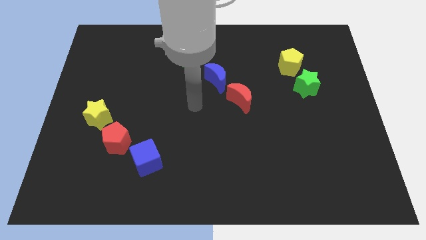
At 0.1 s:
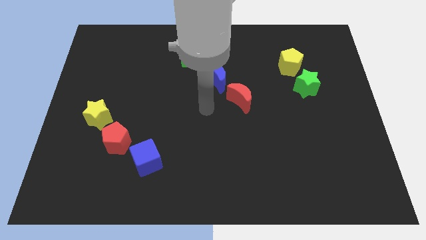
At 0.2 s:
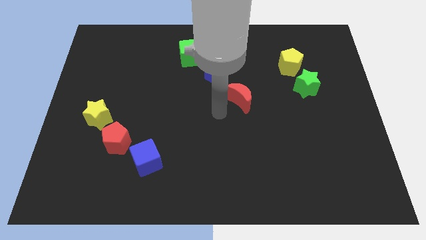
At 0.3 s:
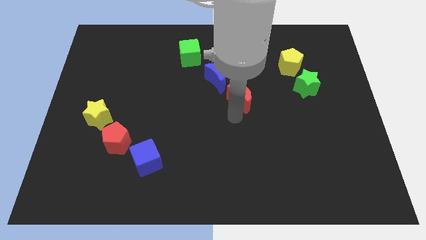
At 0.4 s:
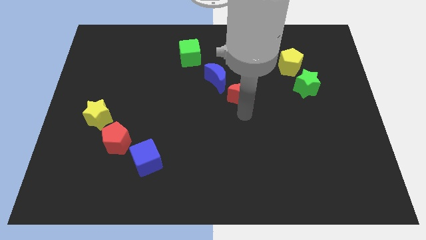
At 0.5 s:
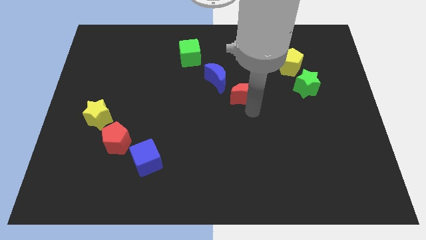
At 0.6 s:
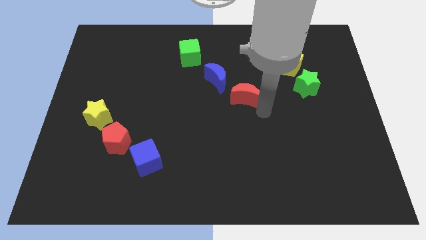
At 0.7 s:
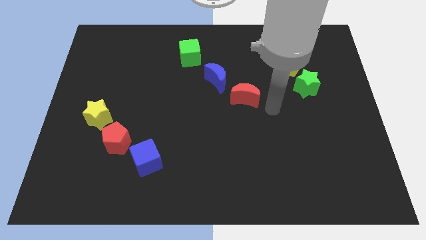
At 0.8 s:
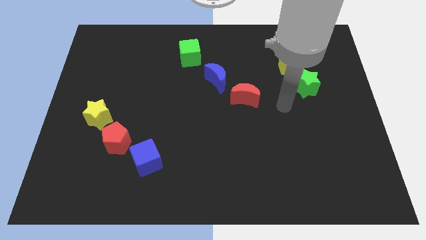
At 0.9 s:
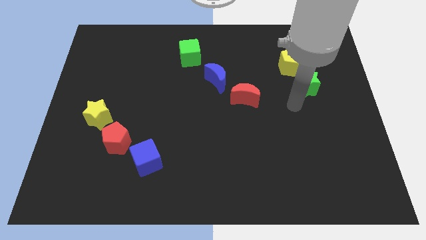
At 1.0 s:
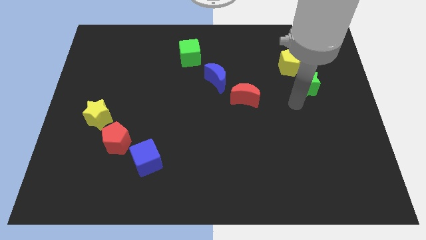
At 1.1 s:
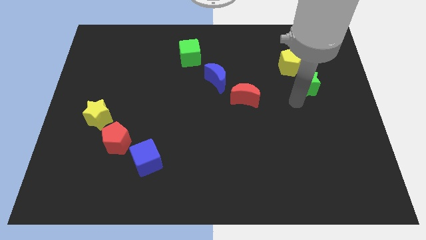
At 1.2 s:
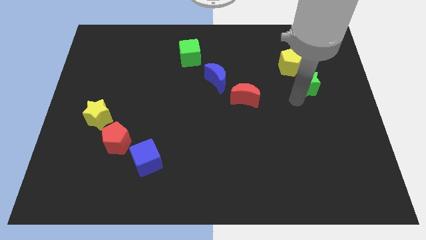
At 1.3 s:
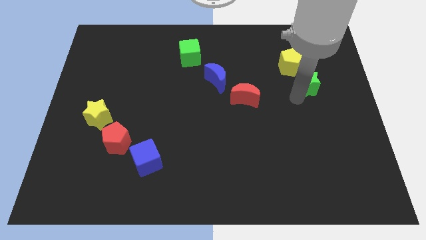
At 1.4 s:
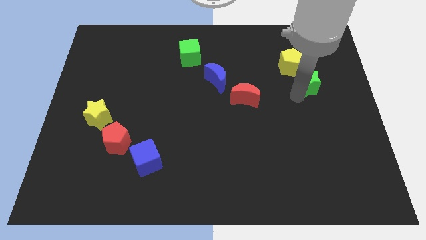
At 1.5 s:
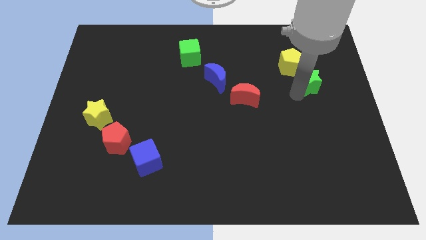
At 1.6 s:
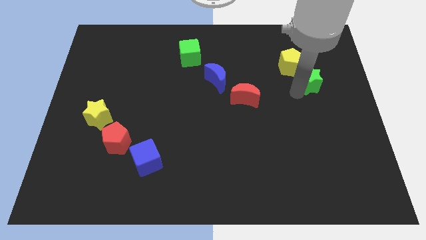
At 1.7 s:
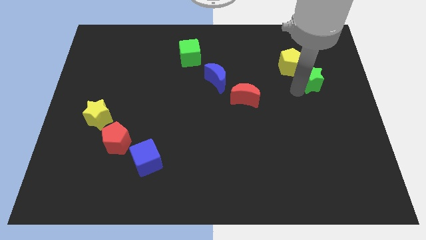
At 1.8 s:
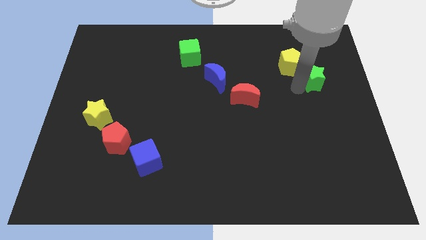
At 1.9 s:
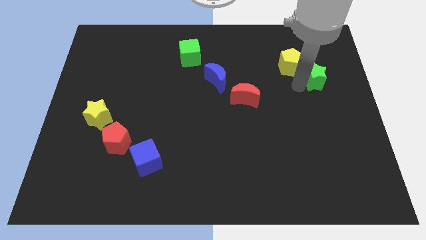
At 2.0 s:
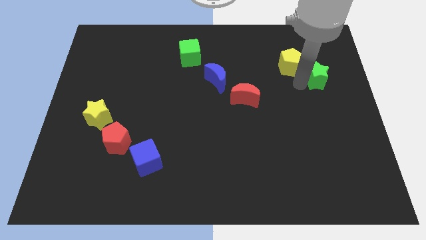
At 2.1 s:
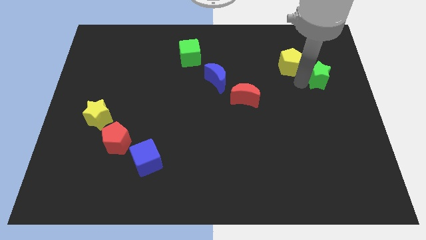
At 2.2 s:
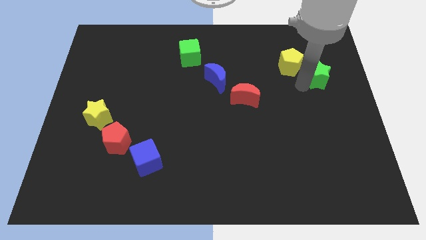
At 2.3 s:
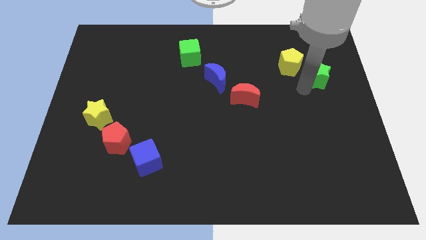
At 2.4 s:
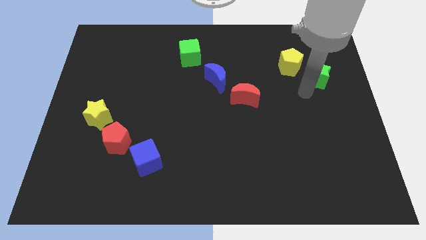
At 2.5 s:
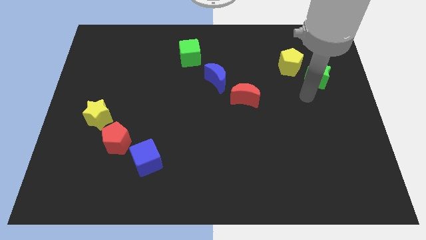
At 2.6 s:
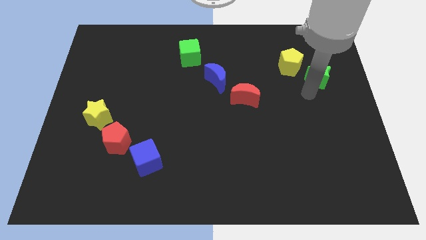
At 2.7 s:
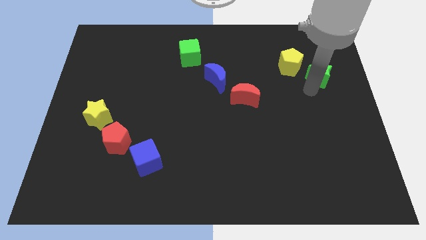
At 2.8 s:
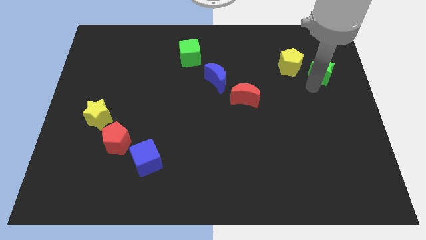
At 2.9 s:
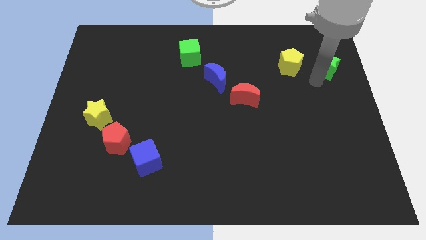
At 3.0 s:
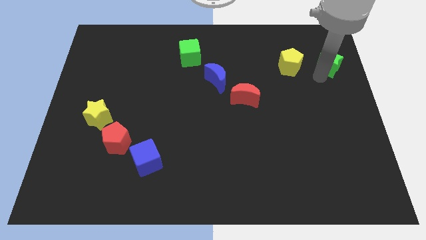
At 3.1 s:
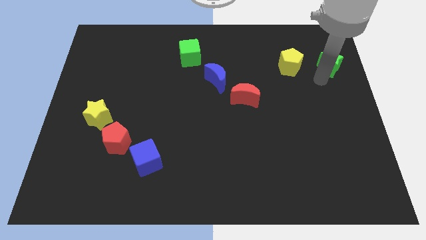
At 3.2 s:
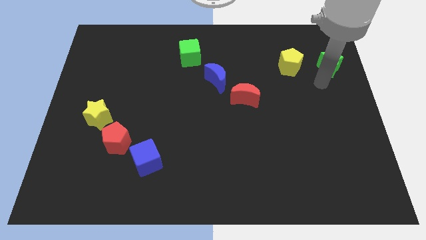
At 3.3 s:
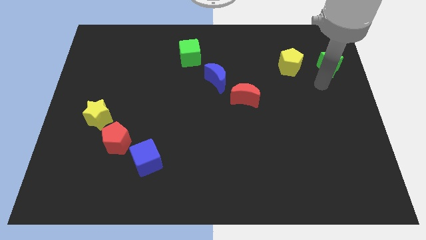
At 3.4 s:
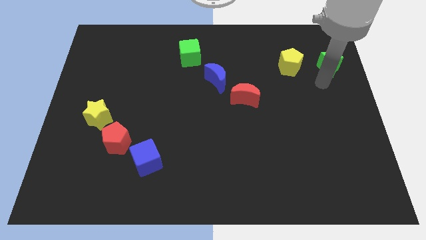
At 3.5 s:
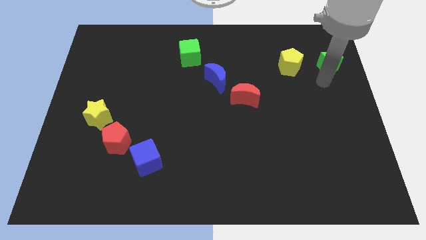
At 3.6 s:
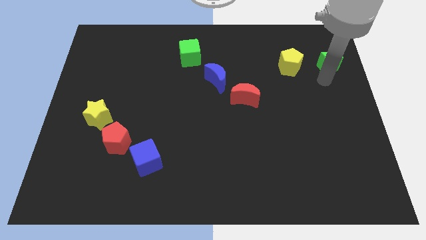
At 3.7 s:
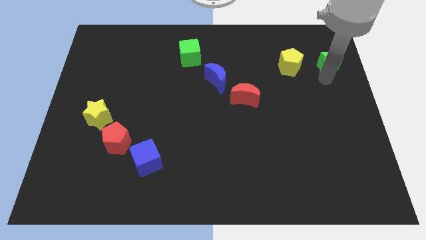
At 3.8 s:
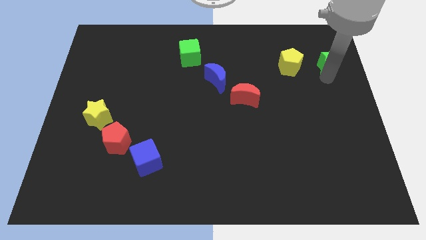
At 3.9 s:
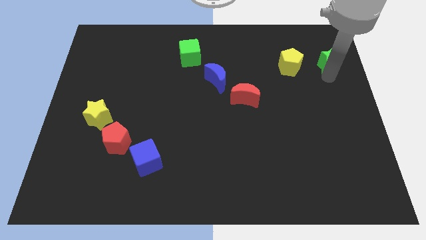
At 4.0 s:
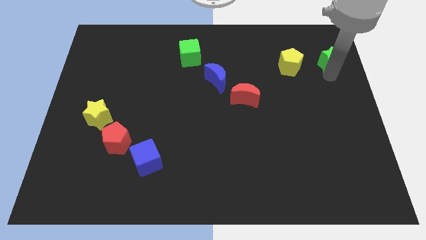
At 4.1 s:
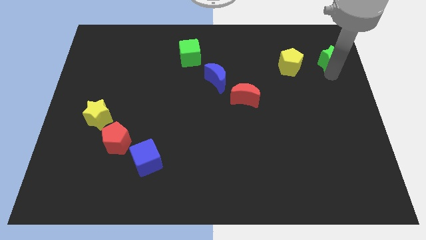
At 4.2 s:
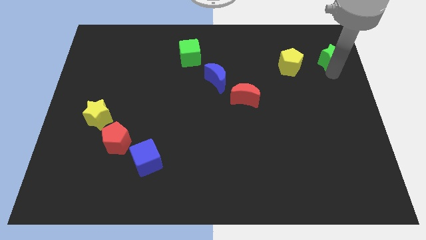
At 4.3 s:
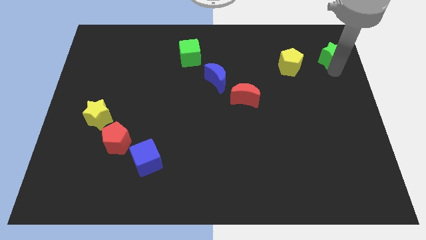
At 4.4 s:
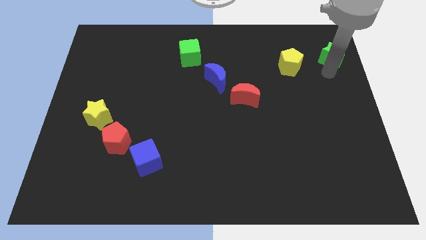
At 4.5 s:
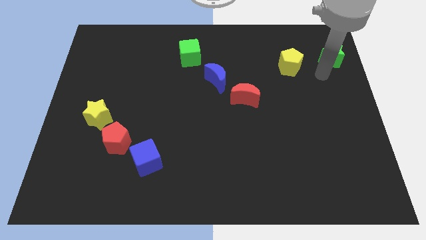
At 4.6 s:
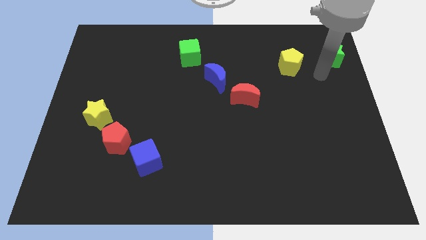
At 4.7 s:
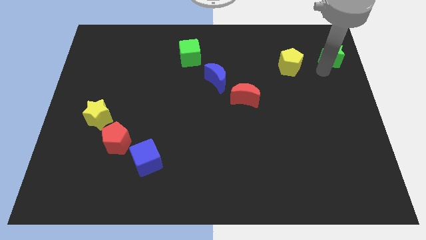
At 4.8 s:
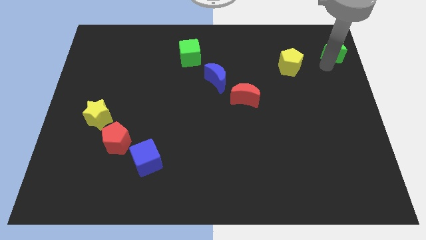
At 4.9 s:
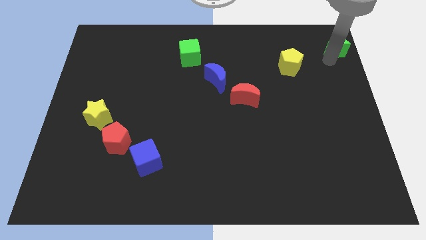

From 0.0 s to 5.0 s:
push the green star to the top right corner

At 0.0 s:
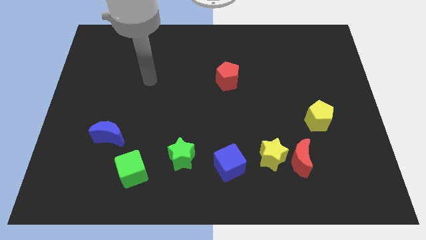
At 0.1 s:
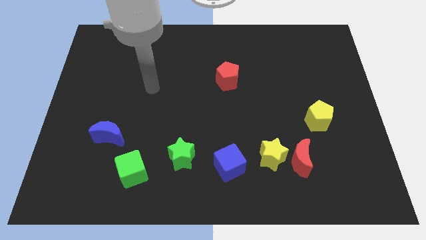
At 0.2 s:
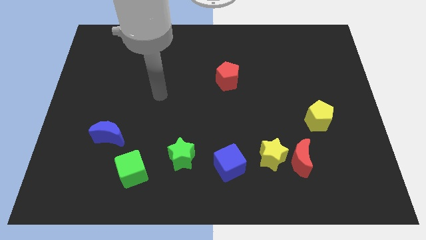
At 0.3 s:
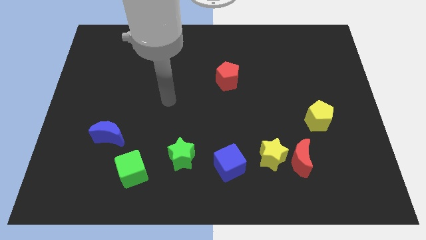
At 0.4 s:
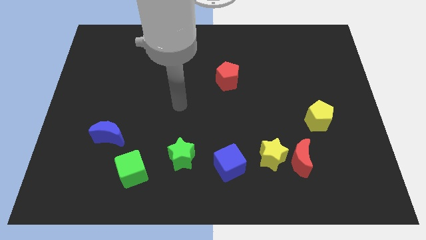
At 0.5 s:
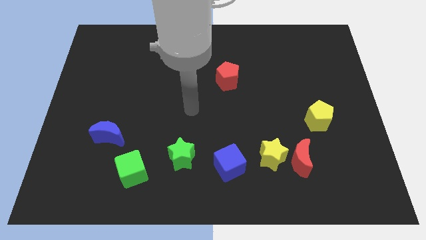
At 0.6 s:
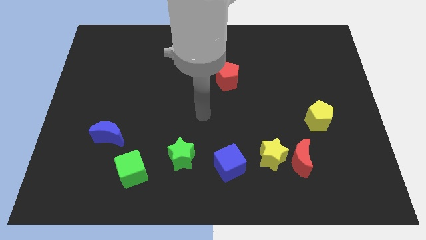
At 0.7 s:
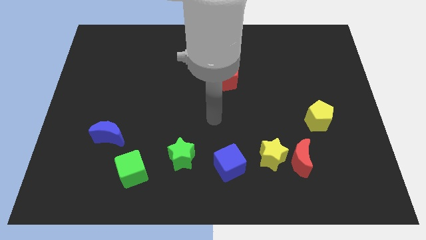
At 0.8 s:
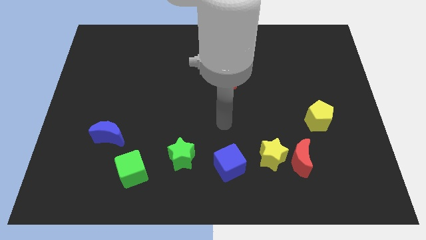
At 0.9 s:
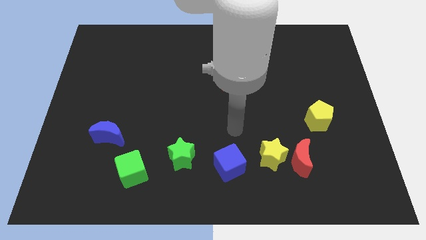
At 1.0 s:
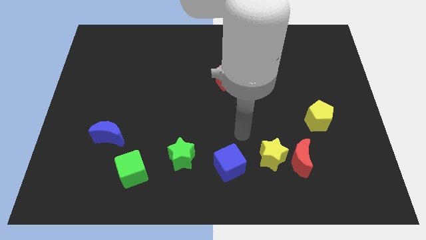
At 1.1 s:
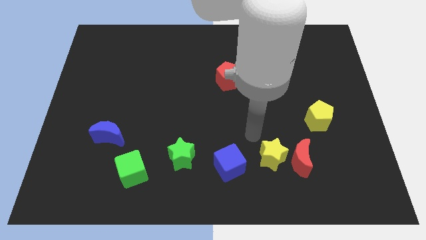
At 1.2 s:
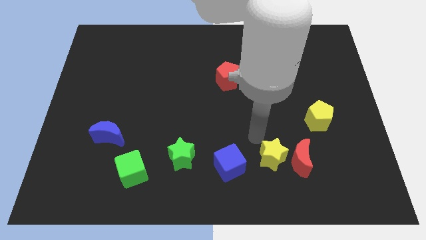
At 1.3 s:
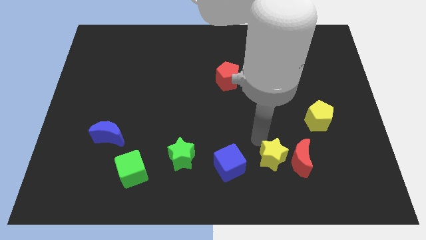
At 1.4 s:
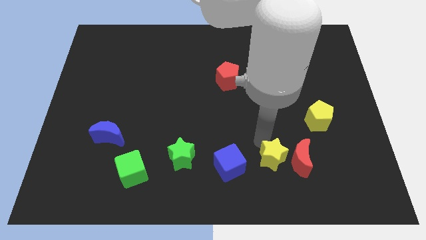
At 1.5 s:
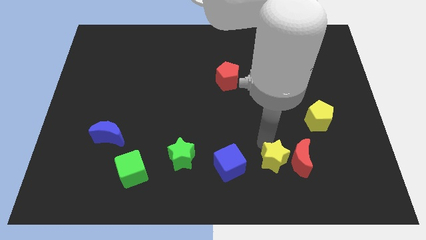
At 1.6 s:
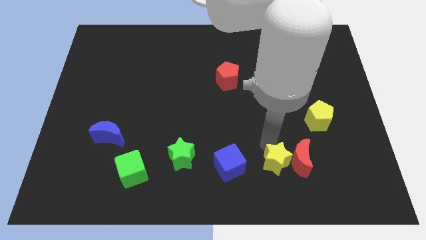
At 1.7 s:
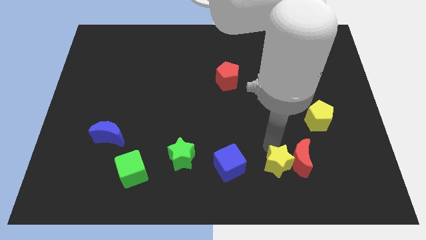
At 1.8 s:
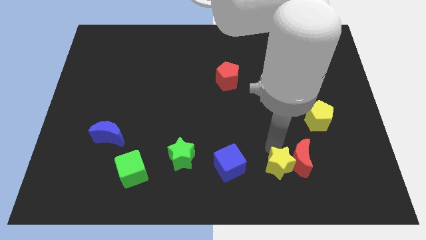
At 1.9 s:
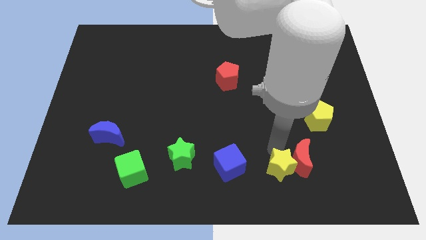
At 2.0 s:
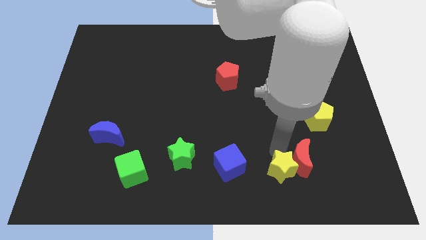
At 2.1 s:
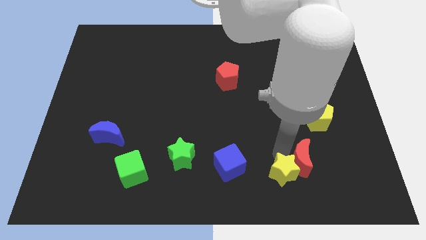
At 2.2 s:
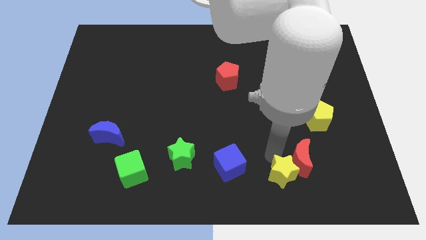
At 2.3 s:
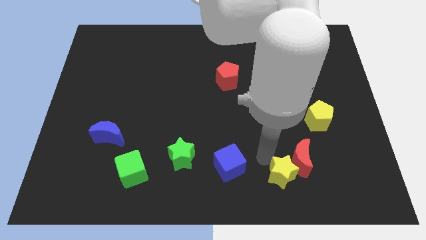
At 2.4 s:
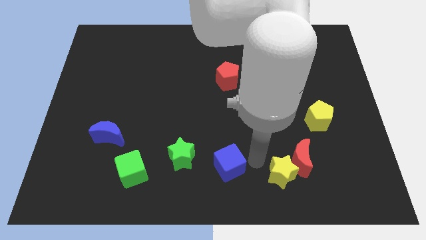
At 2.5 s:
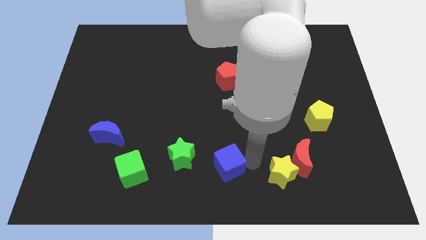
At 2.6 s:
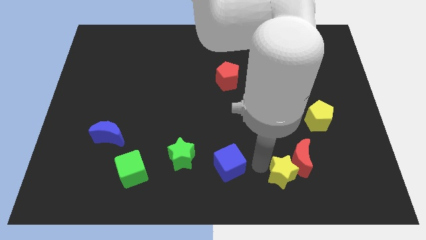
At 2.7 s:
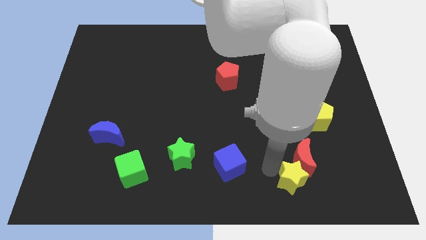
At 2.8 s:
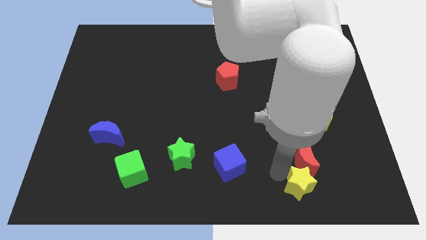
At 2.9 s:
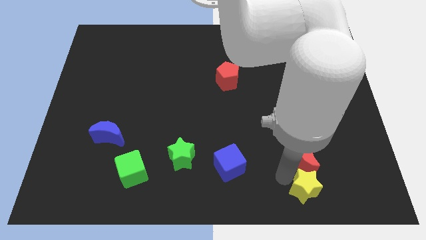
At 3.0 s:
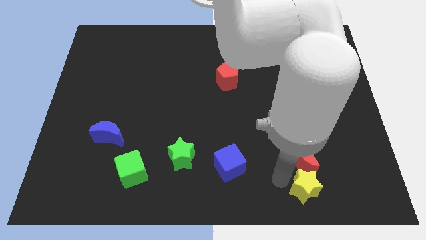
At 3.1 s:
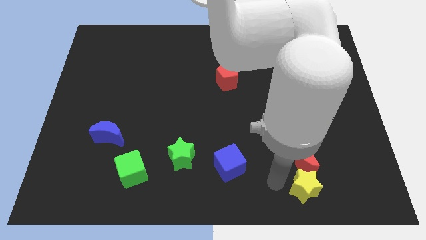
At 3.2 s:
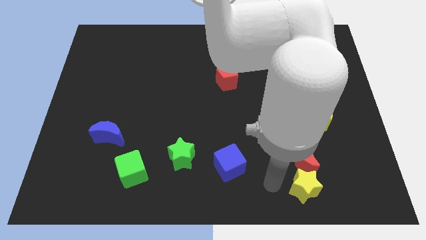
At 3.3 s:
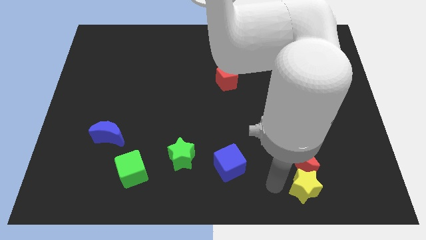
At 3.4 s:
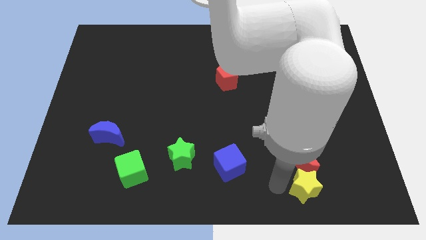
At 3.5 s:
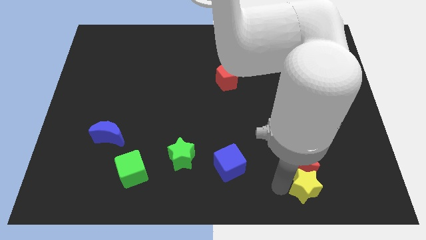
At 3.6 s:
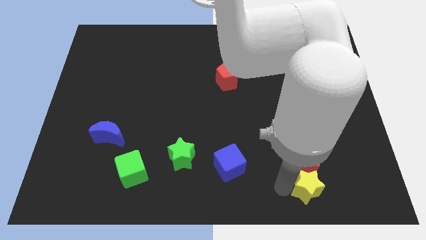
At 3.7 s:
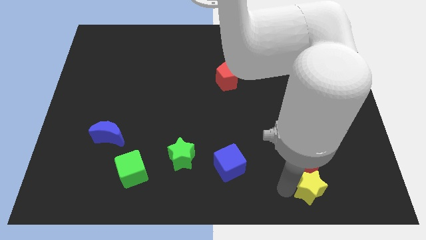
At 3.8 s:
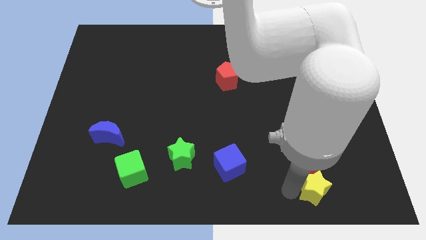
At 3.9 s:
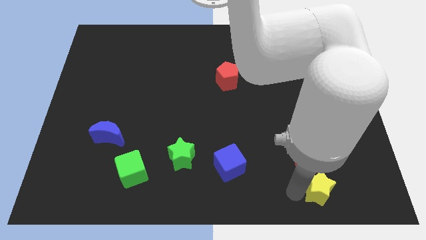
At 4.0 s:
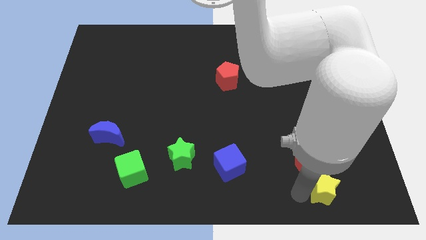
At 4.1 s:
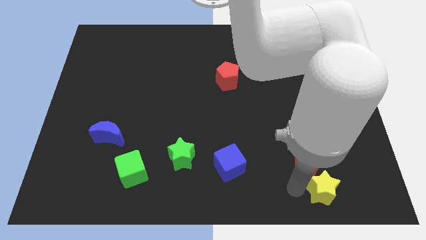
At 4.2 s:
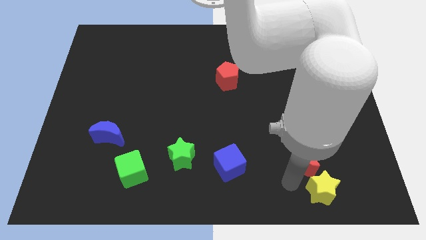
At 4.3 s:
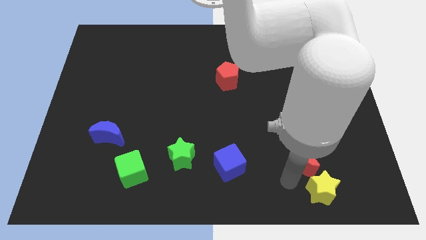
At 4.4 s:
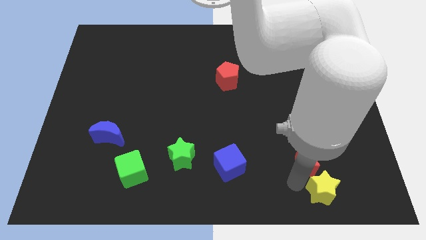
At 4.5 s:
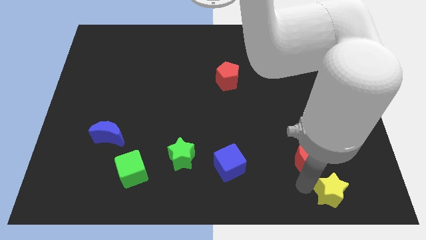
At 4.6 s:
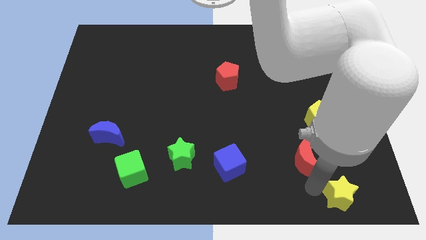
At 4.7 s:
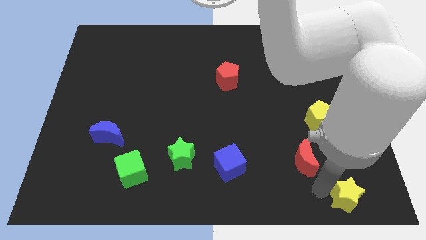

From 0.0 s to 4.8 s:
put the yellow star to the bottom right
